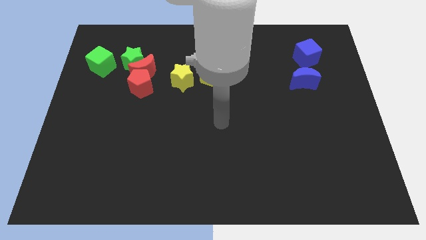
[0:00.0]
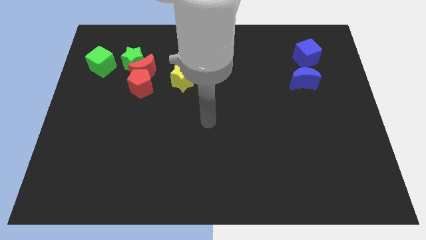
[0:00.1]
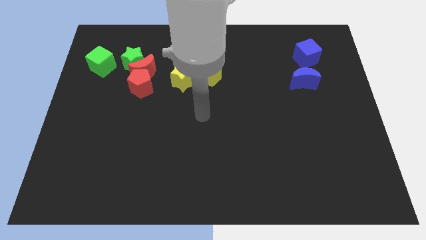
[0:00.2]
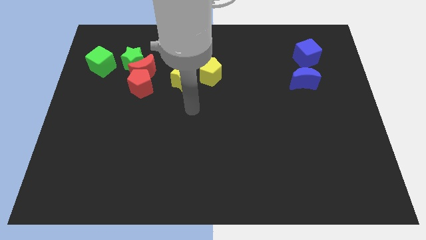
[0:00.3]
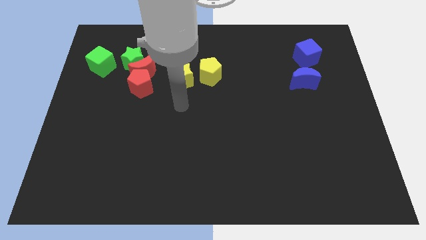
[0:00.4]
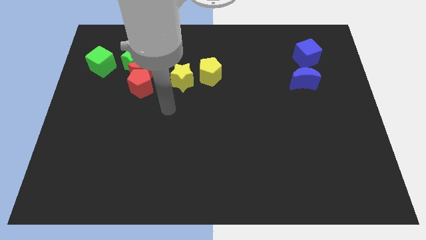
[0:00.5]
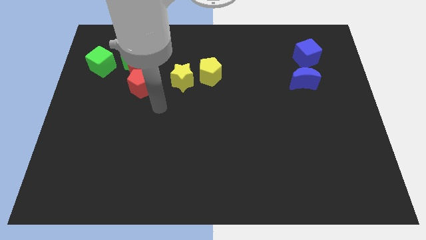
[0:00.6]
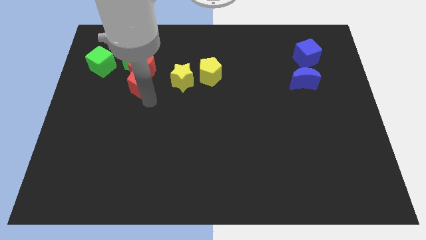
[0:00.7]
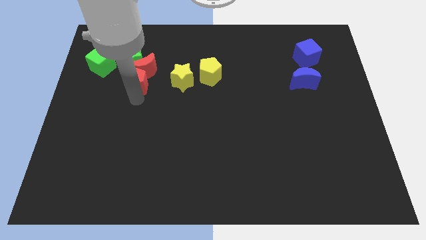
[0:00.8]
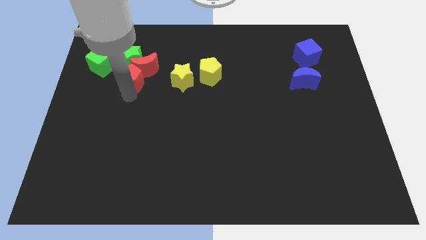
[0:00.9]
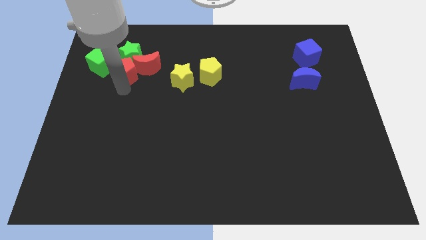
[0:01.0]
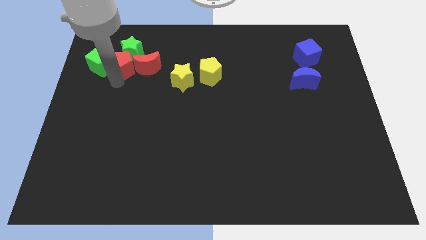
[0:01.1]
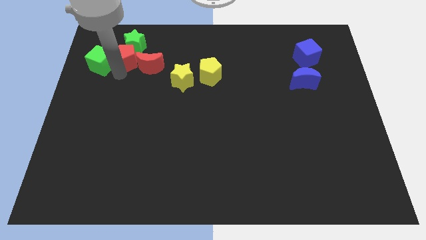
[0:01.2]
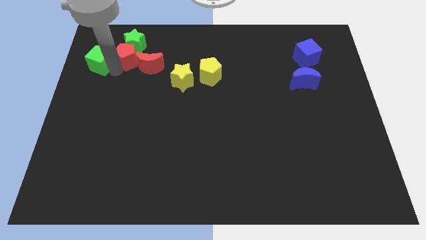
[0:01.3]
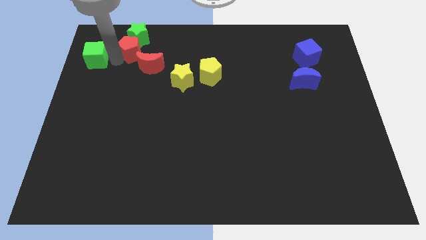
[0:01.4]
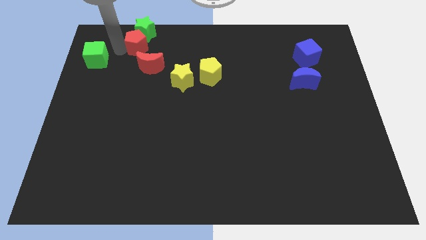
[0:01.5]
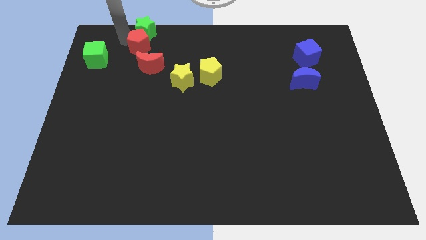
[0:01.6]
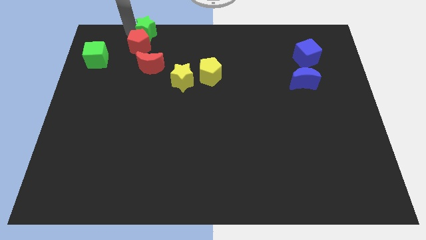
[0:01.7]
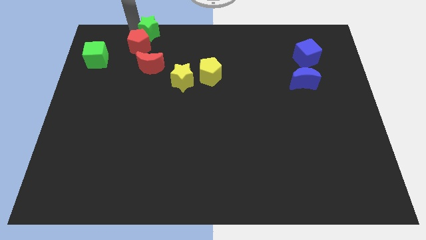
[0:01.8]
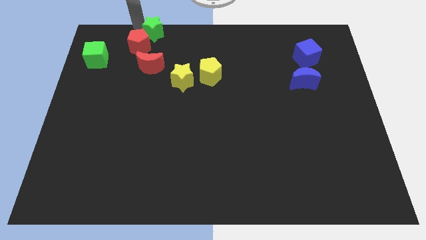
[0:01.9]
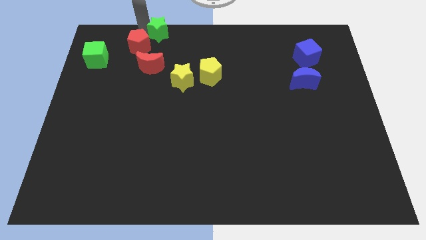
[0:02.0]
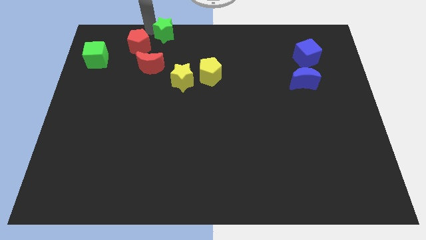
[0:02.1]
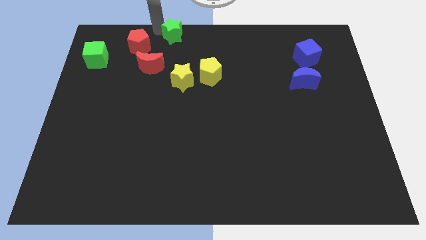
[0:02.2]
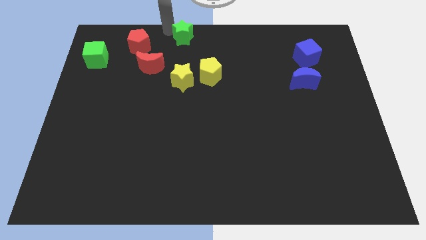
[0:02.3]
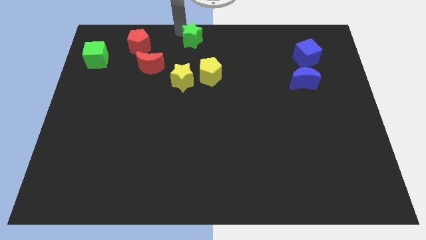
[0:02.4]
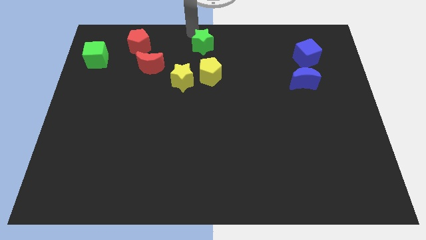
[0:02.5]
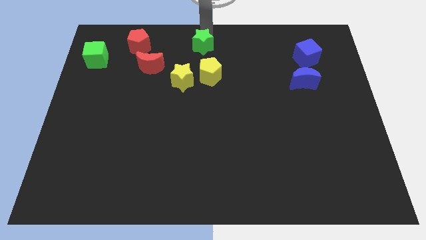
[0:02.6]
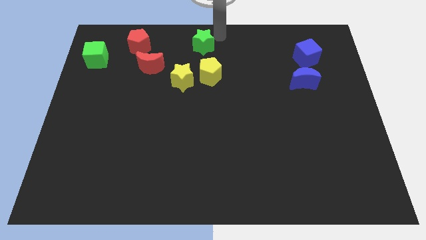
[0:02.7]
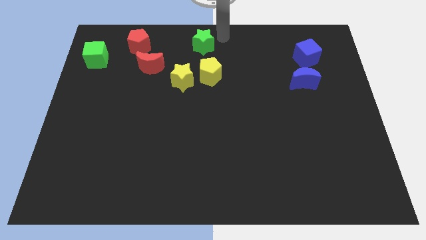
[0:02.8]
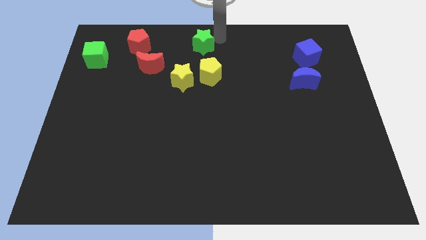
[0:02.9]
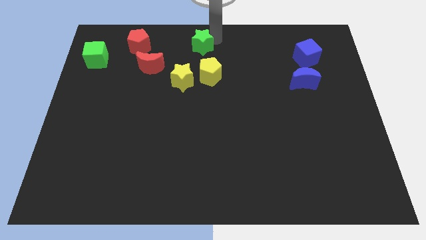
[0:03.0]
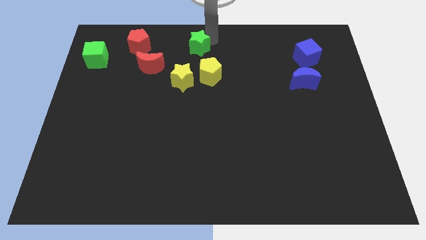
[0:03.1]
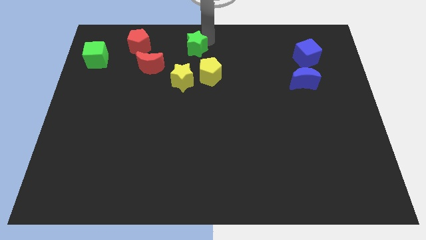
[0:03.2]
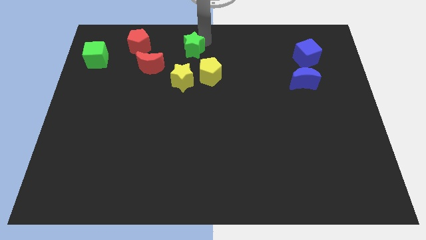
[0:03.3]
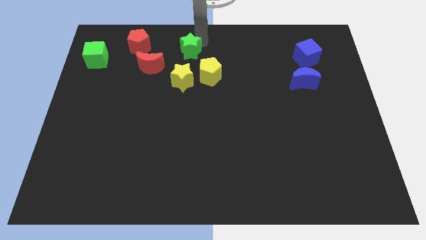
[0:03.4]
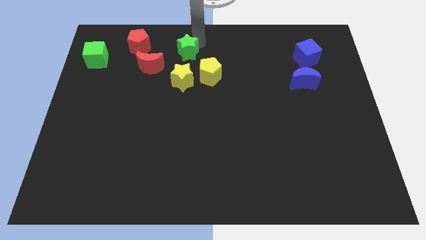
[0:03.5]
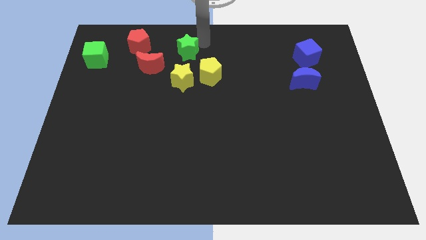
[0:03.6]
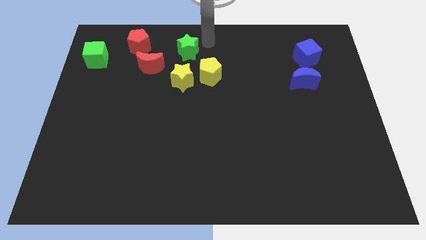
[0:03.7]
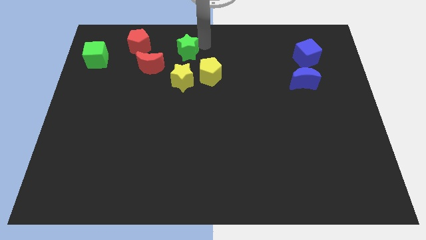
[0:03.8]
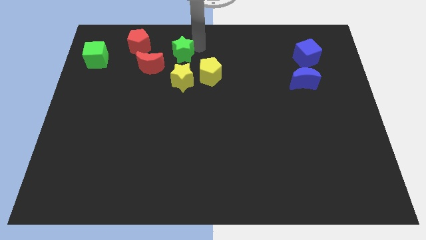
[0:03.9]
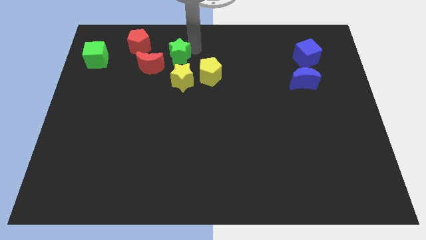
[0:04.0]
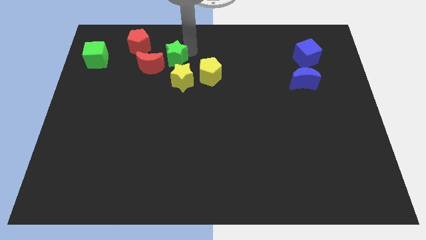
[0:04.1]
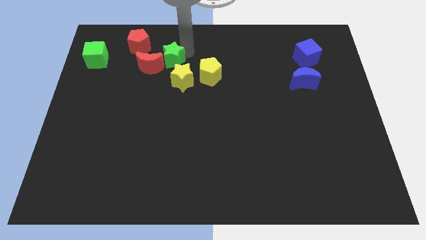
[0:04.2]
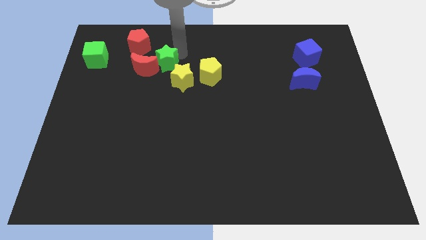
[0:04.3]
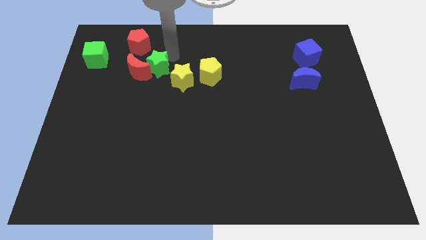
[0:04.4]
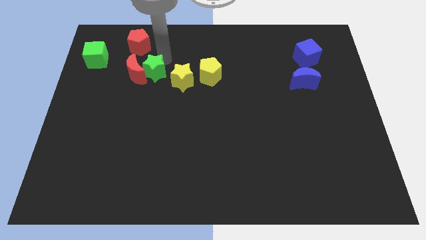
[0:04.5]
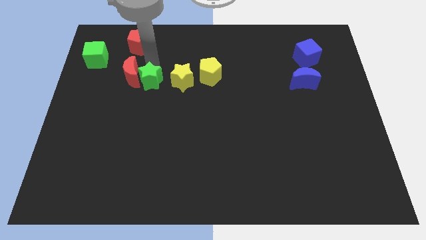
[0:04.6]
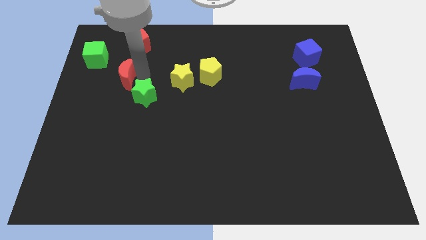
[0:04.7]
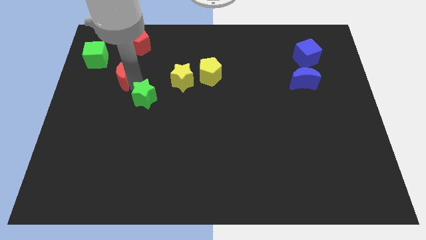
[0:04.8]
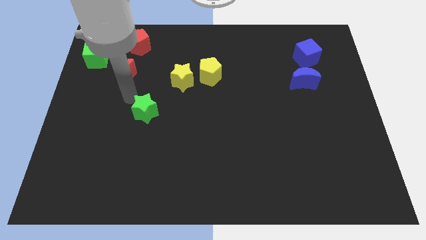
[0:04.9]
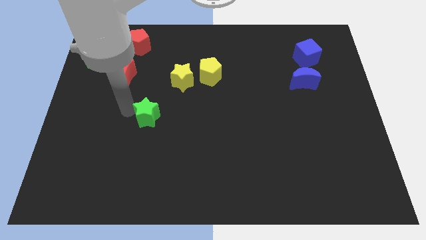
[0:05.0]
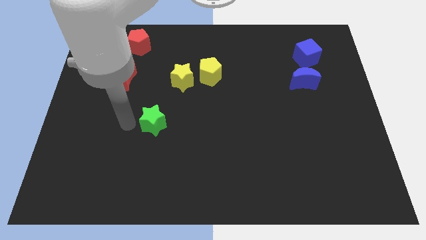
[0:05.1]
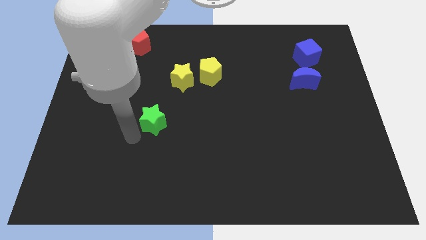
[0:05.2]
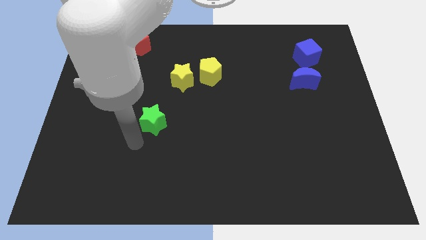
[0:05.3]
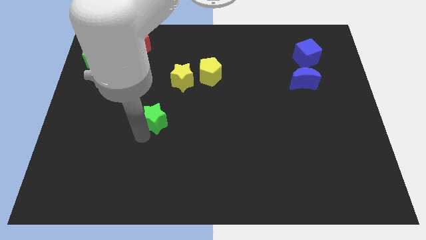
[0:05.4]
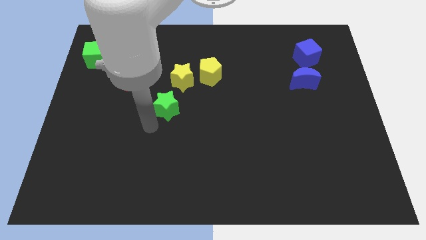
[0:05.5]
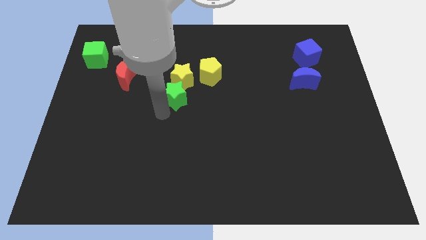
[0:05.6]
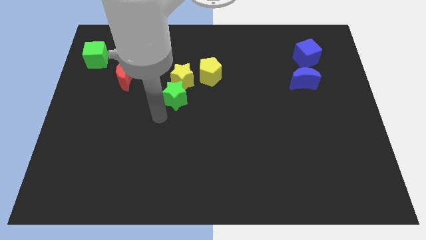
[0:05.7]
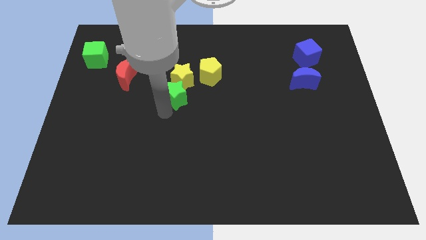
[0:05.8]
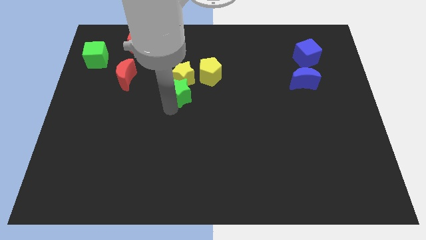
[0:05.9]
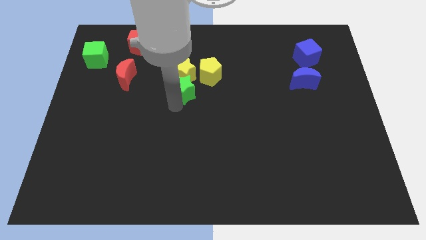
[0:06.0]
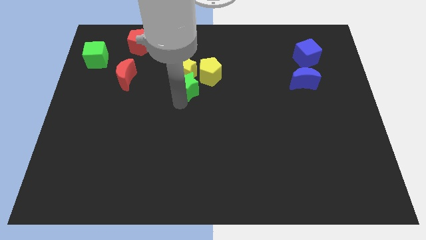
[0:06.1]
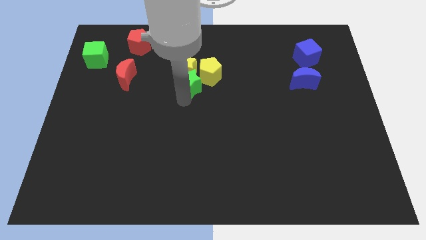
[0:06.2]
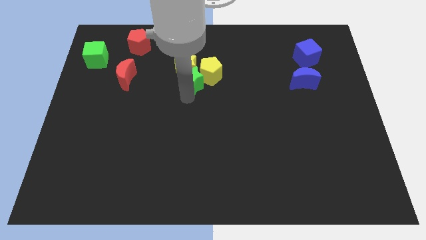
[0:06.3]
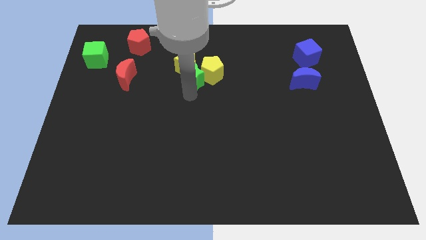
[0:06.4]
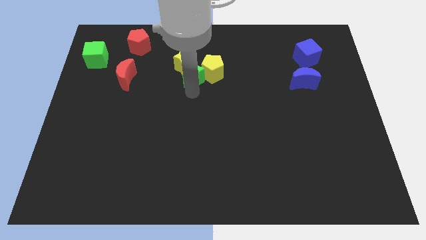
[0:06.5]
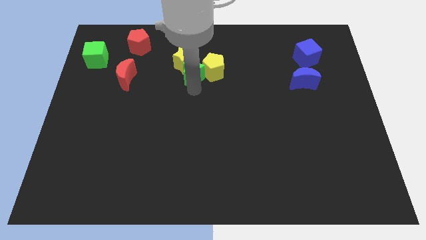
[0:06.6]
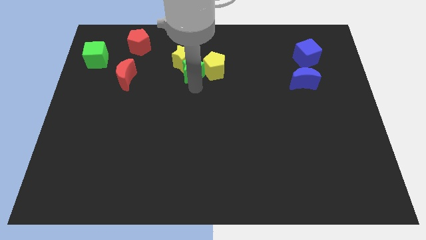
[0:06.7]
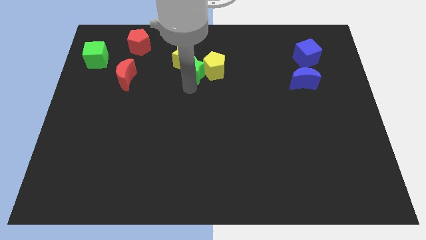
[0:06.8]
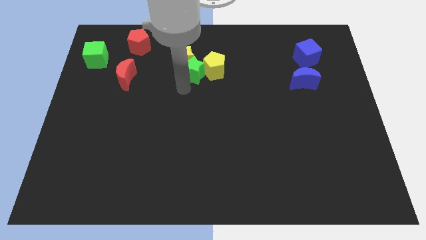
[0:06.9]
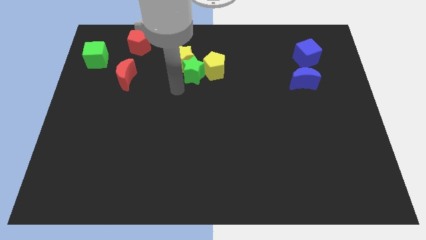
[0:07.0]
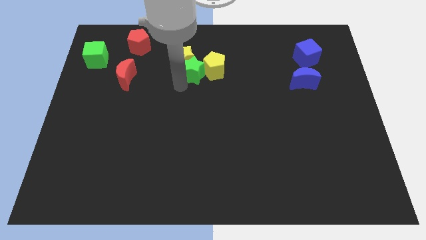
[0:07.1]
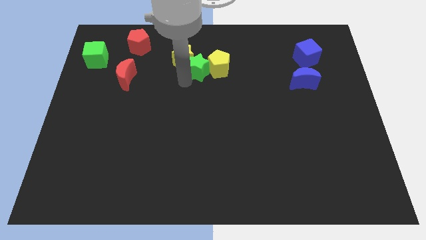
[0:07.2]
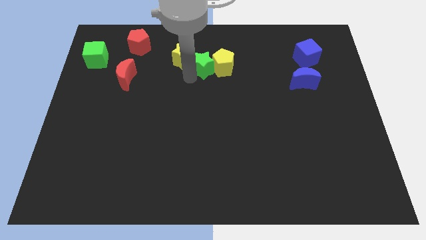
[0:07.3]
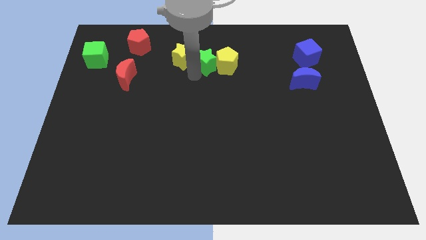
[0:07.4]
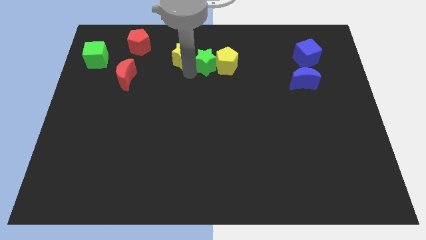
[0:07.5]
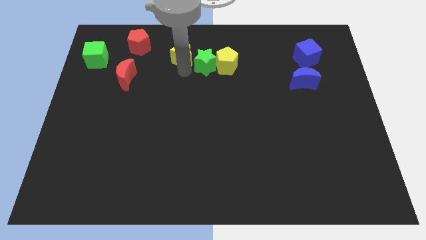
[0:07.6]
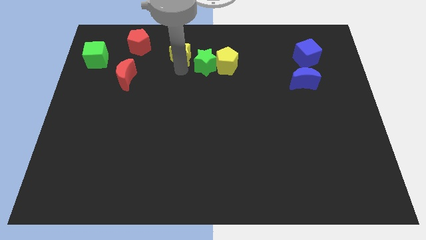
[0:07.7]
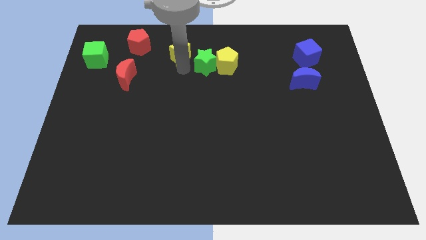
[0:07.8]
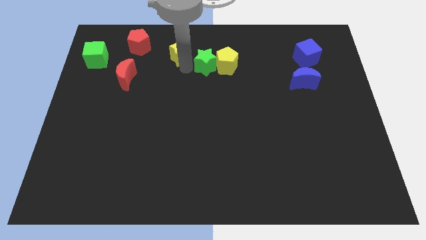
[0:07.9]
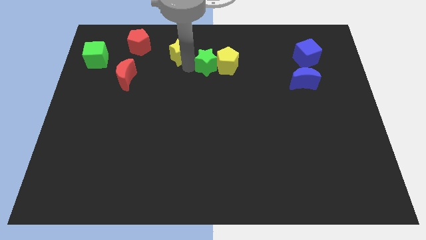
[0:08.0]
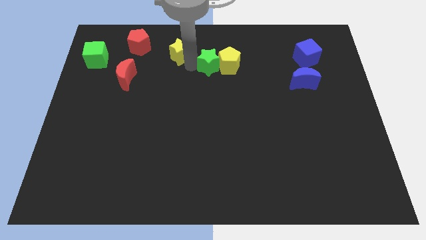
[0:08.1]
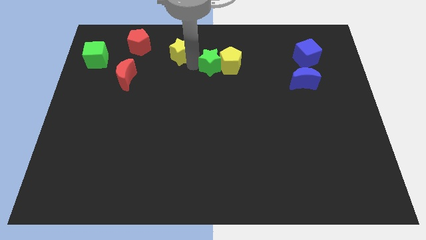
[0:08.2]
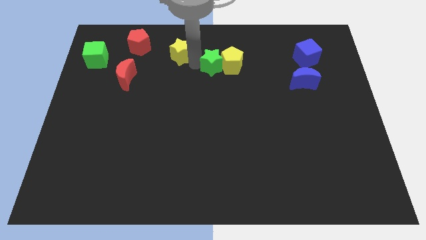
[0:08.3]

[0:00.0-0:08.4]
slide the green star right
